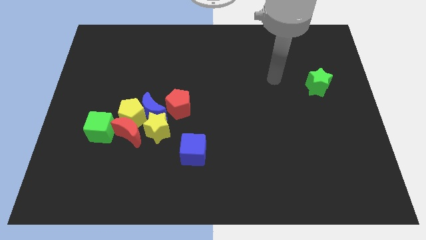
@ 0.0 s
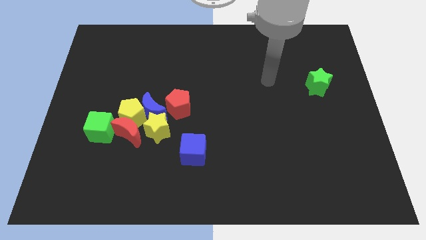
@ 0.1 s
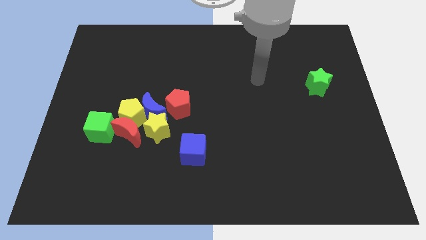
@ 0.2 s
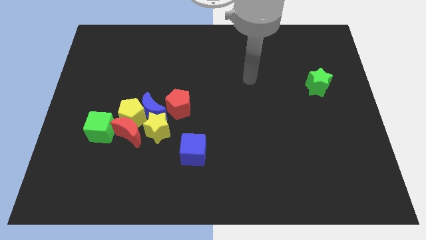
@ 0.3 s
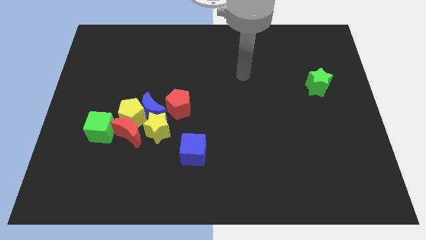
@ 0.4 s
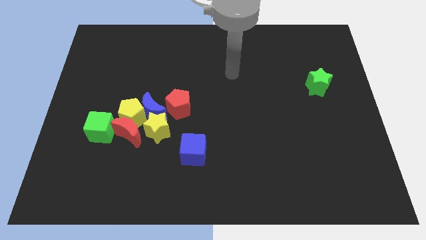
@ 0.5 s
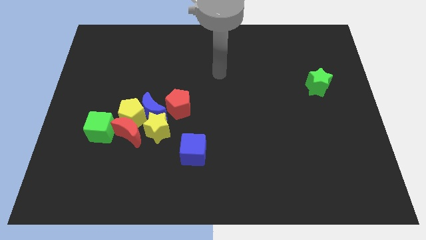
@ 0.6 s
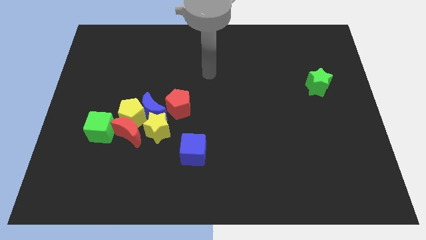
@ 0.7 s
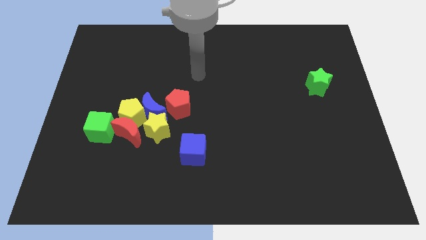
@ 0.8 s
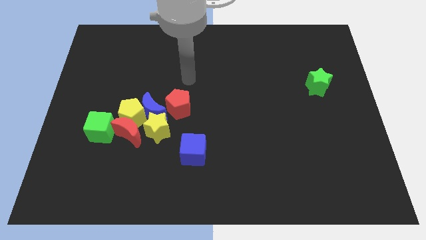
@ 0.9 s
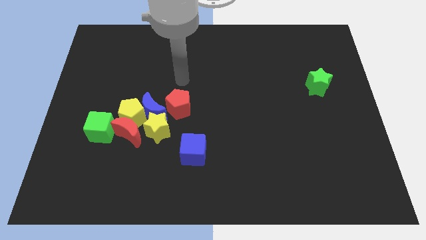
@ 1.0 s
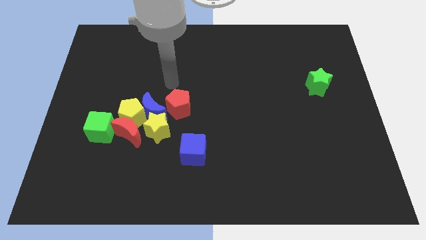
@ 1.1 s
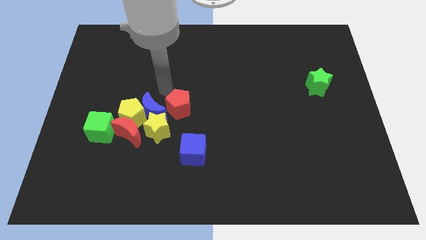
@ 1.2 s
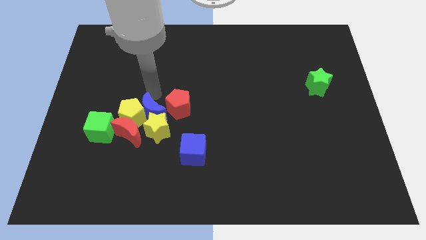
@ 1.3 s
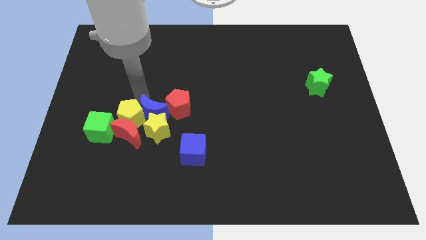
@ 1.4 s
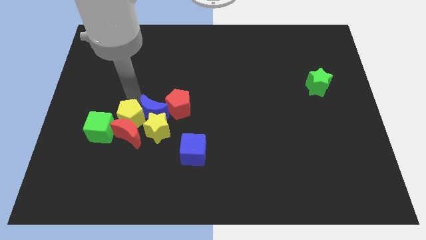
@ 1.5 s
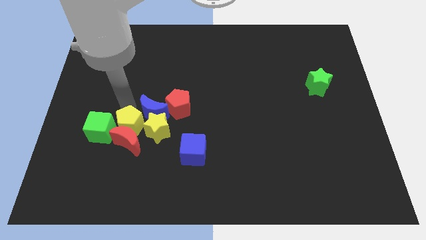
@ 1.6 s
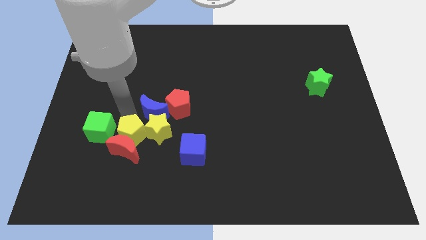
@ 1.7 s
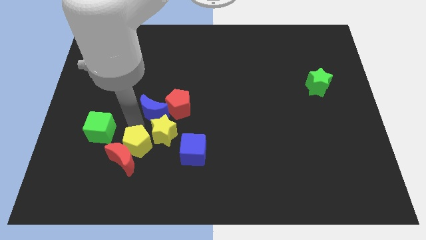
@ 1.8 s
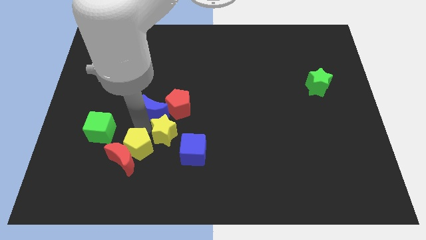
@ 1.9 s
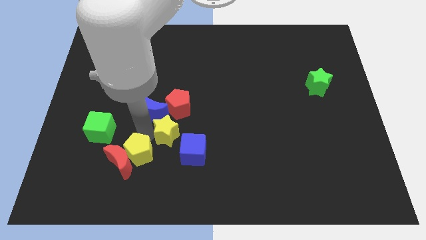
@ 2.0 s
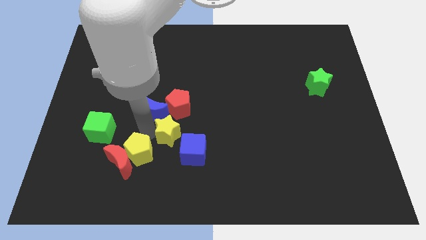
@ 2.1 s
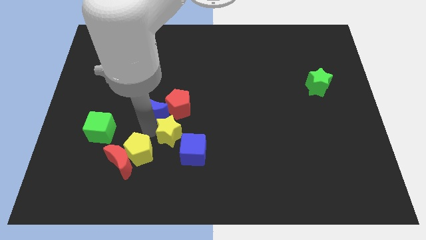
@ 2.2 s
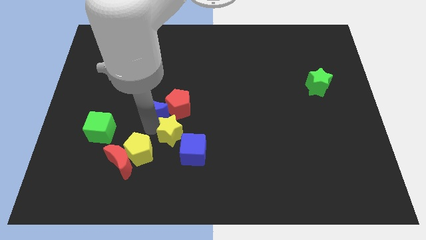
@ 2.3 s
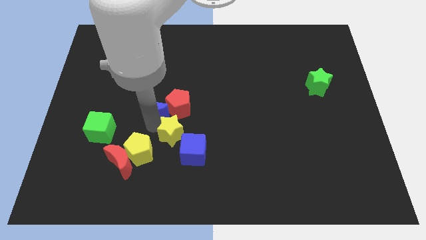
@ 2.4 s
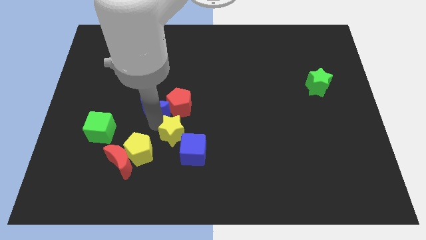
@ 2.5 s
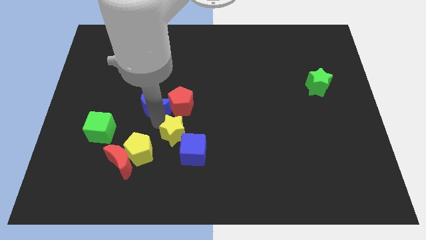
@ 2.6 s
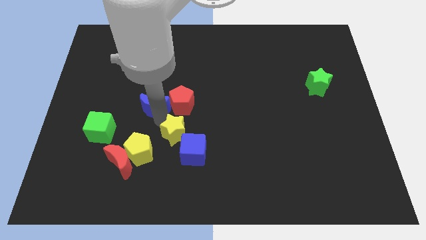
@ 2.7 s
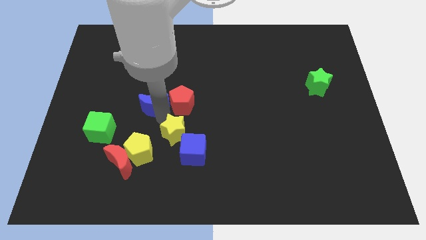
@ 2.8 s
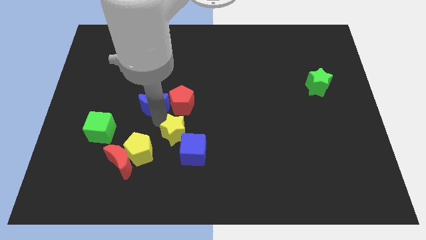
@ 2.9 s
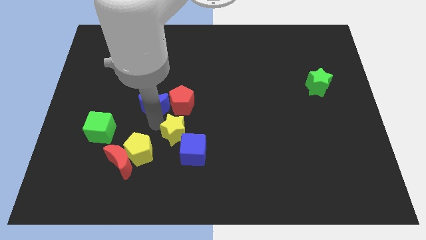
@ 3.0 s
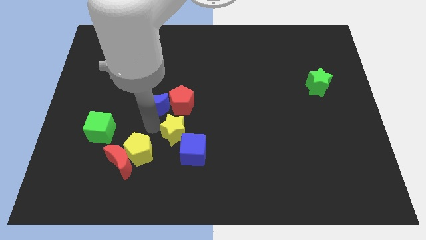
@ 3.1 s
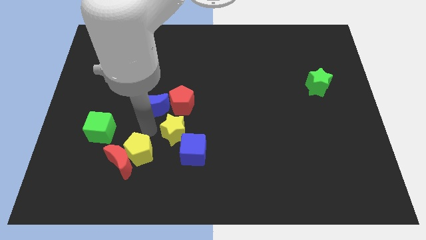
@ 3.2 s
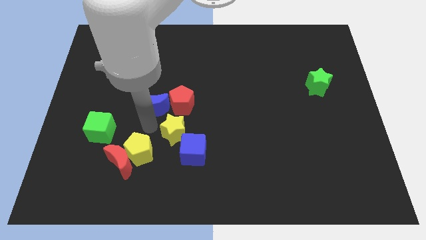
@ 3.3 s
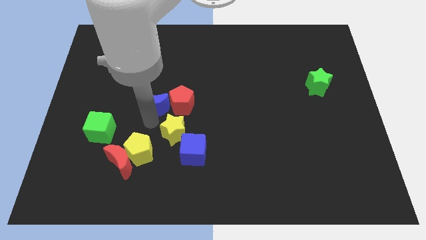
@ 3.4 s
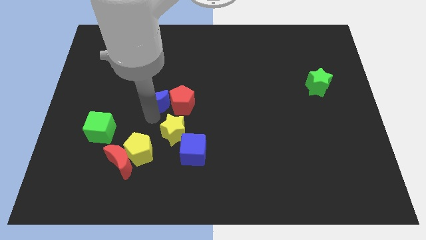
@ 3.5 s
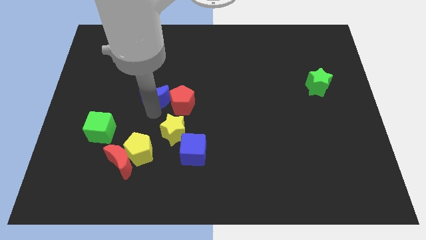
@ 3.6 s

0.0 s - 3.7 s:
move the blue moon away from the group

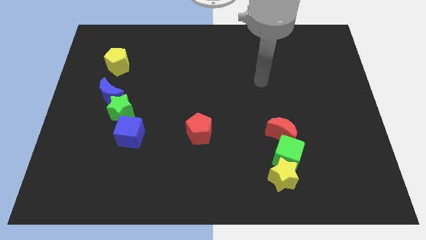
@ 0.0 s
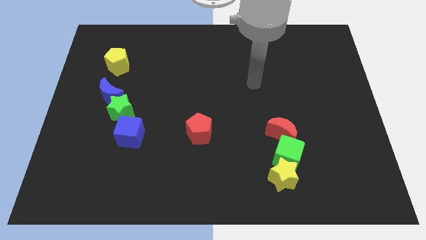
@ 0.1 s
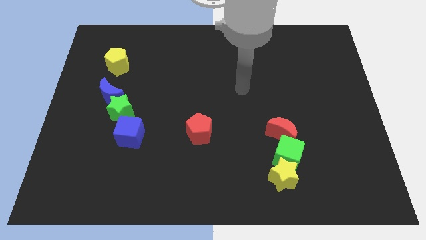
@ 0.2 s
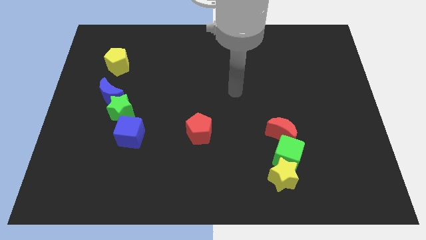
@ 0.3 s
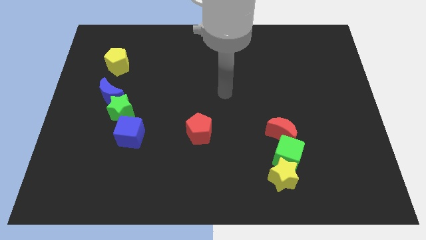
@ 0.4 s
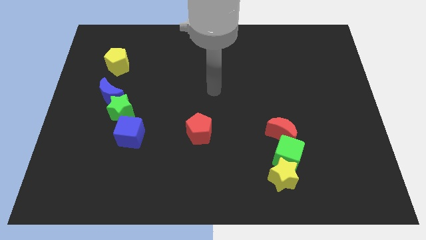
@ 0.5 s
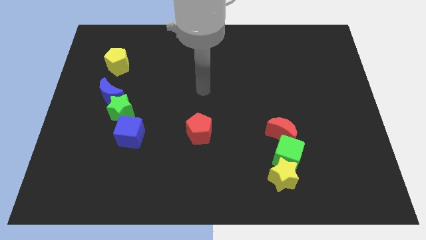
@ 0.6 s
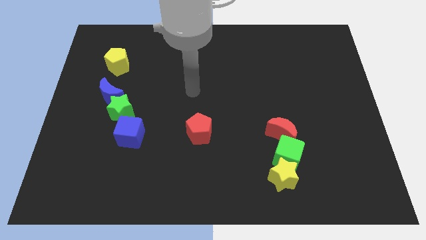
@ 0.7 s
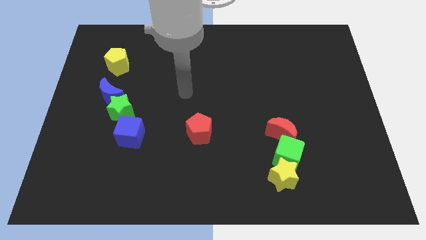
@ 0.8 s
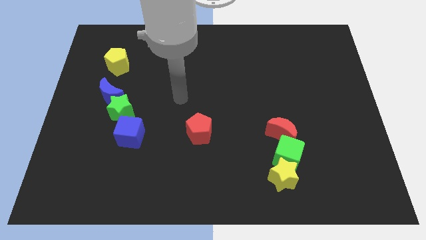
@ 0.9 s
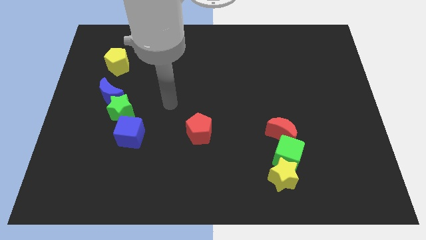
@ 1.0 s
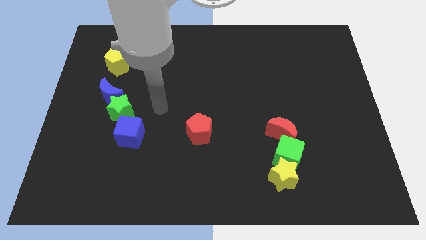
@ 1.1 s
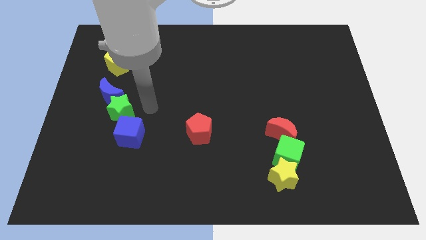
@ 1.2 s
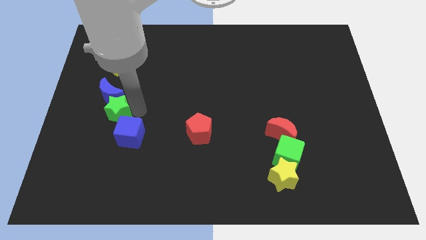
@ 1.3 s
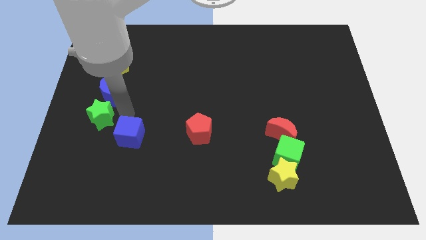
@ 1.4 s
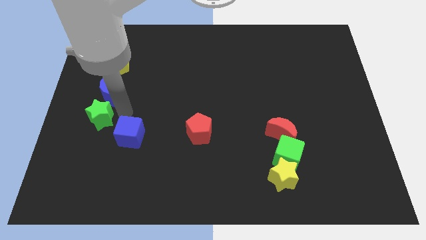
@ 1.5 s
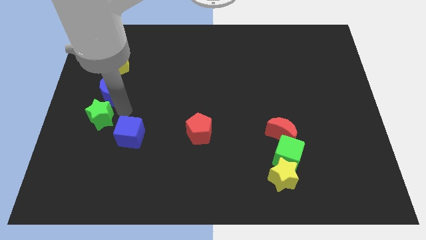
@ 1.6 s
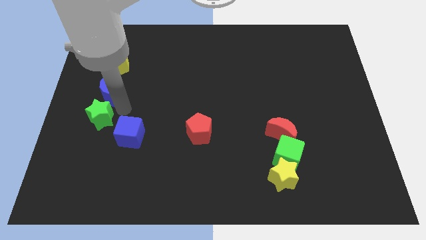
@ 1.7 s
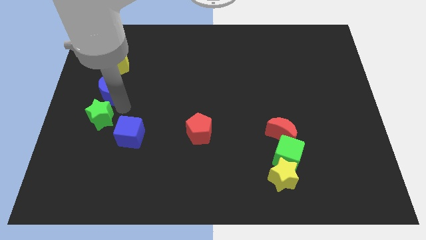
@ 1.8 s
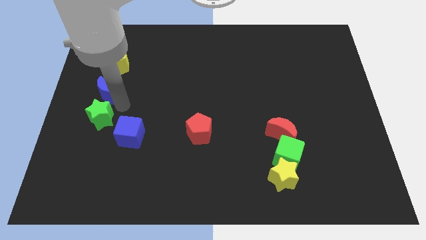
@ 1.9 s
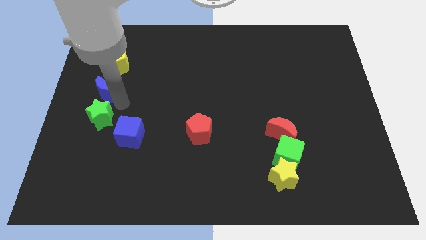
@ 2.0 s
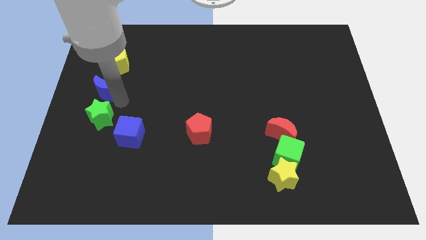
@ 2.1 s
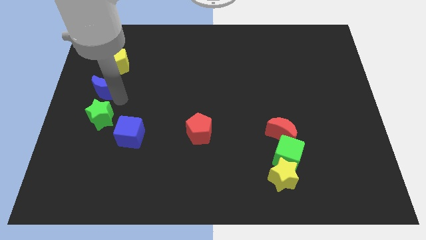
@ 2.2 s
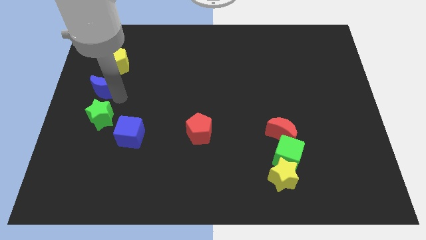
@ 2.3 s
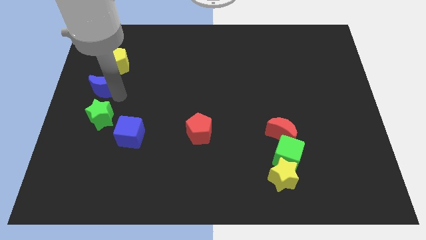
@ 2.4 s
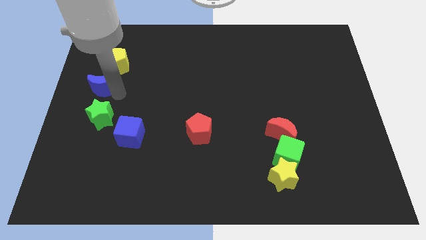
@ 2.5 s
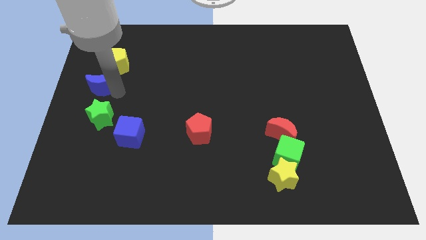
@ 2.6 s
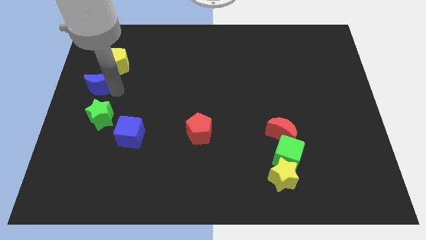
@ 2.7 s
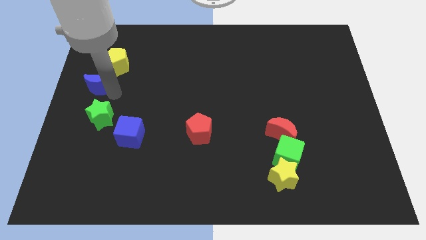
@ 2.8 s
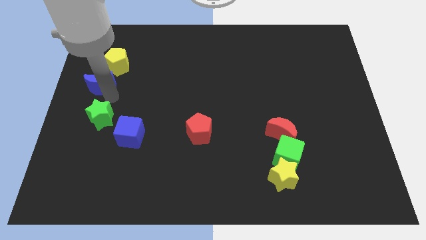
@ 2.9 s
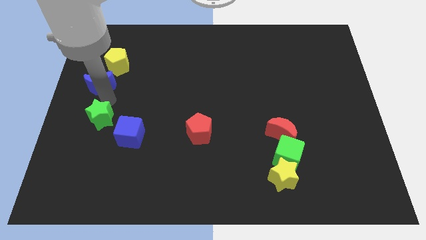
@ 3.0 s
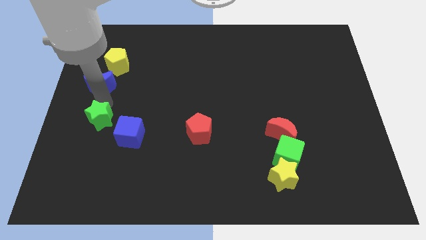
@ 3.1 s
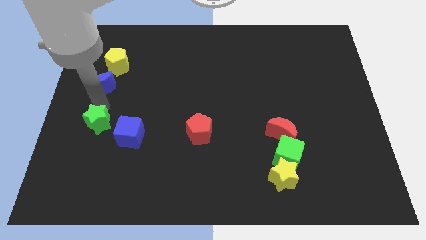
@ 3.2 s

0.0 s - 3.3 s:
move the blue moon away from the green star

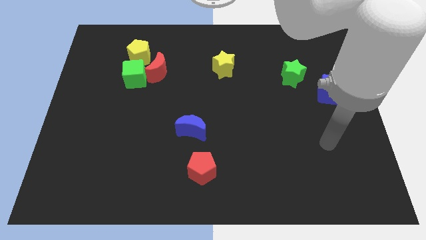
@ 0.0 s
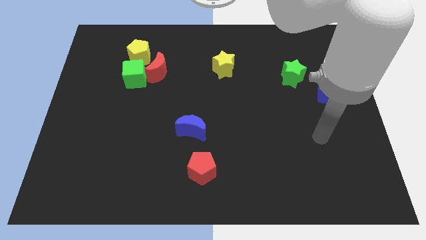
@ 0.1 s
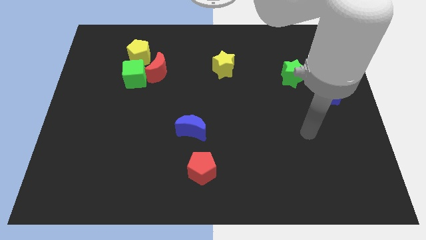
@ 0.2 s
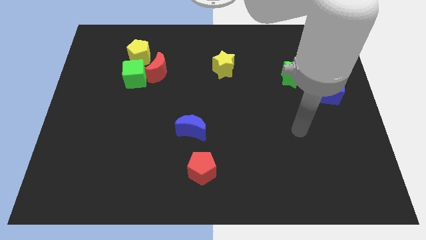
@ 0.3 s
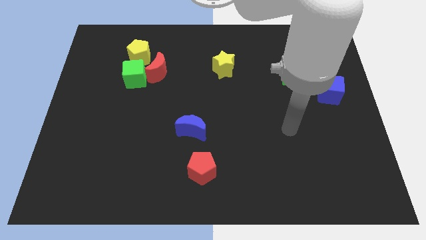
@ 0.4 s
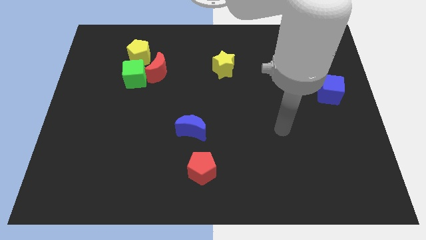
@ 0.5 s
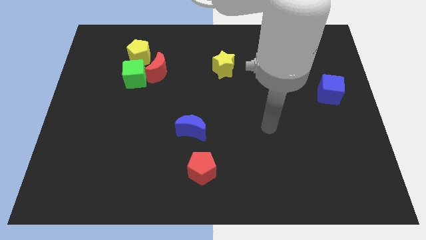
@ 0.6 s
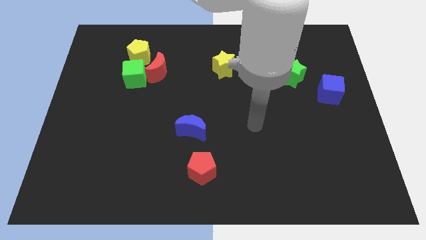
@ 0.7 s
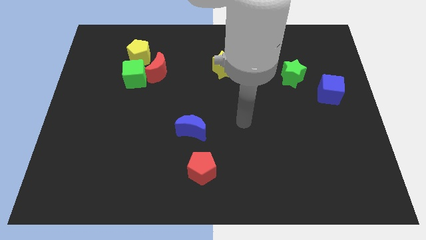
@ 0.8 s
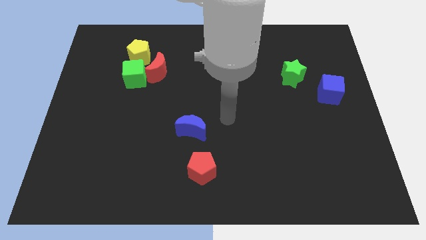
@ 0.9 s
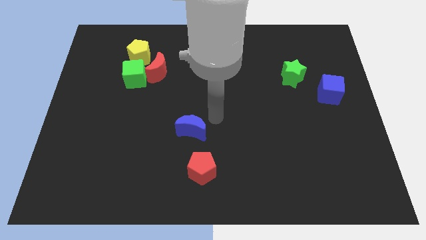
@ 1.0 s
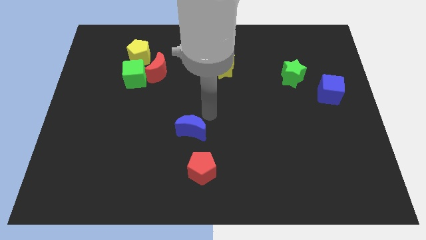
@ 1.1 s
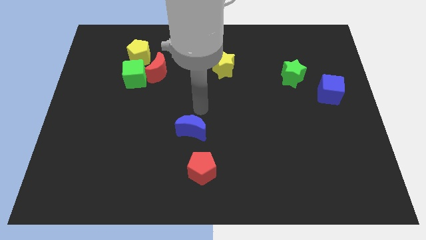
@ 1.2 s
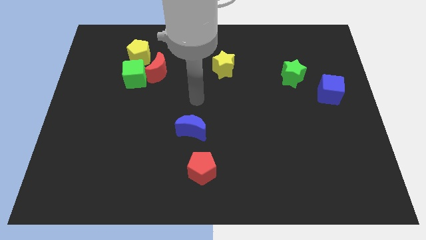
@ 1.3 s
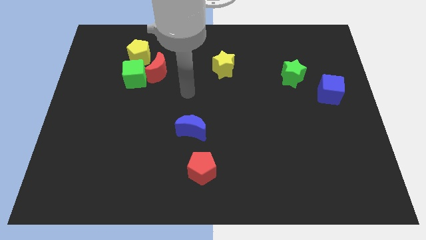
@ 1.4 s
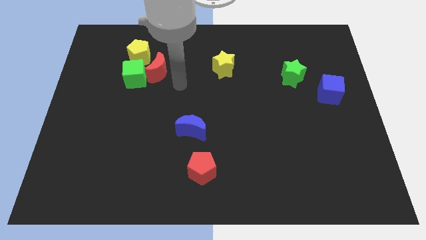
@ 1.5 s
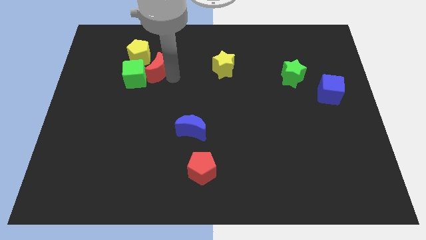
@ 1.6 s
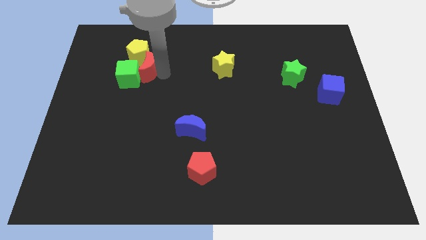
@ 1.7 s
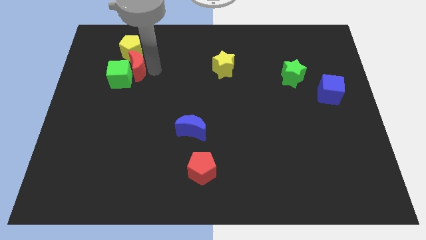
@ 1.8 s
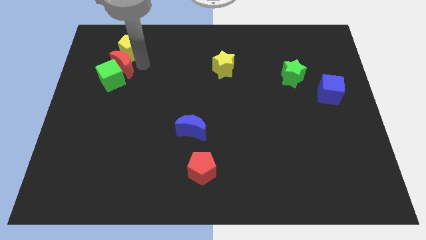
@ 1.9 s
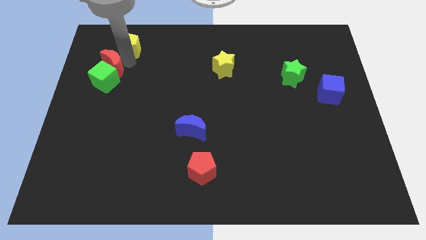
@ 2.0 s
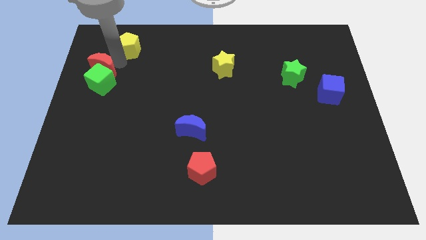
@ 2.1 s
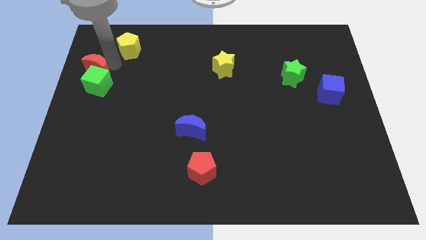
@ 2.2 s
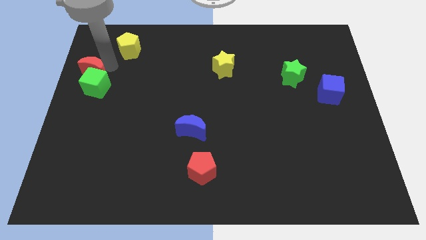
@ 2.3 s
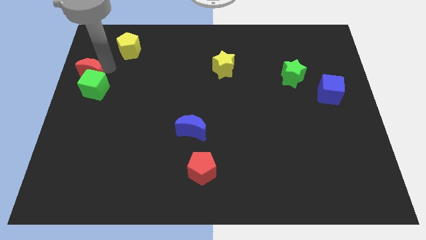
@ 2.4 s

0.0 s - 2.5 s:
separate the green cube from the red moon and yellow pentagon
